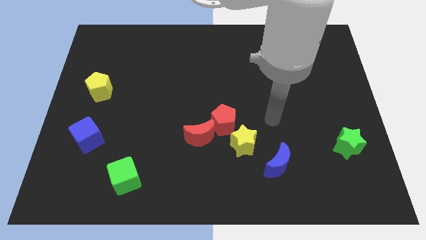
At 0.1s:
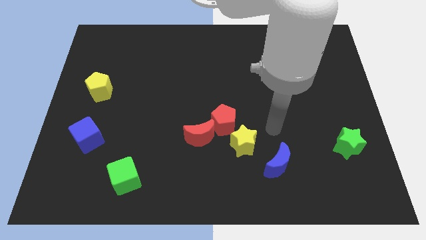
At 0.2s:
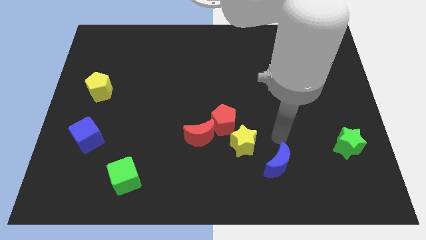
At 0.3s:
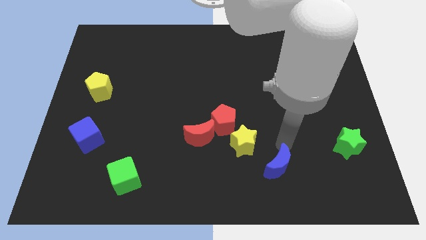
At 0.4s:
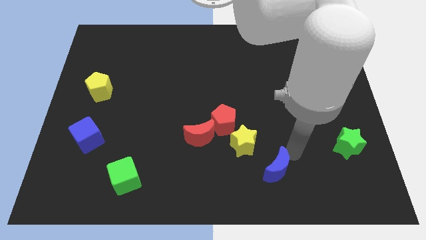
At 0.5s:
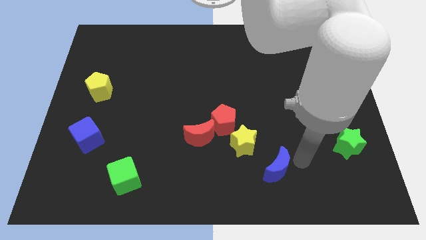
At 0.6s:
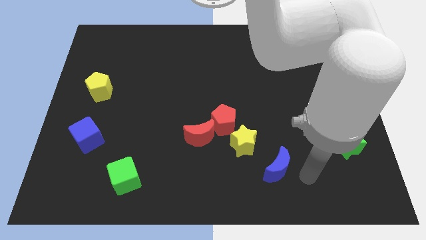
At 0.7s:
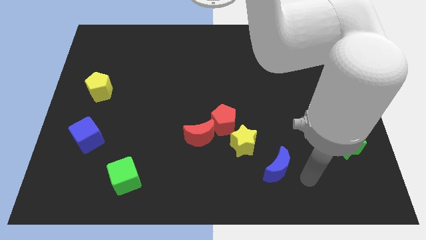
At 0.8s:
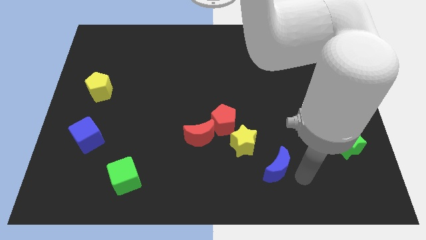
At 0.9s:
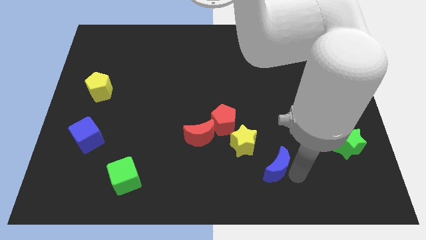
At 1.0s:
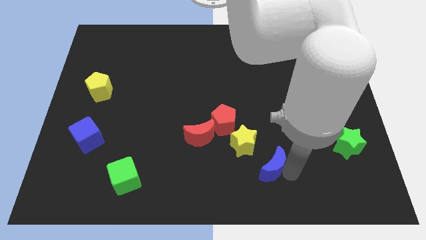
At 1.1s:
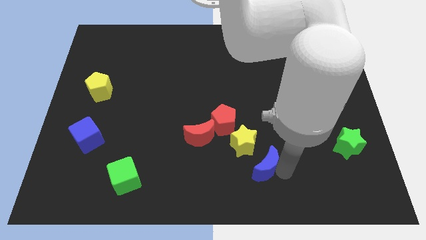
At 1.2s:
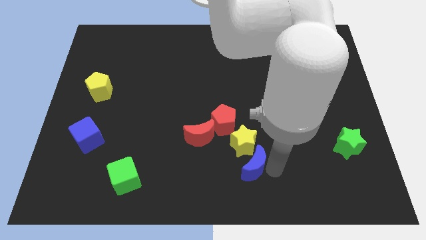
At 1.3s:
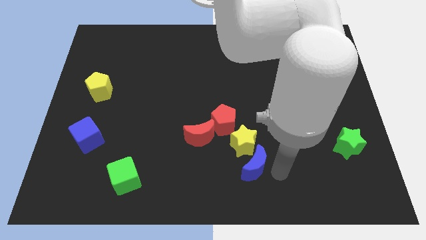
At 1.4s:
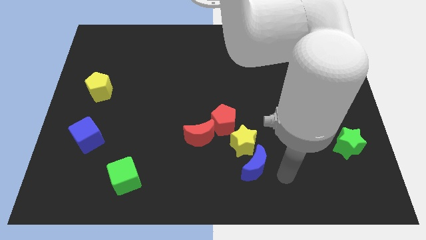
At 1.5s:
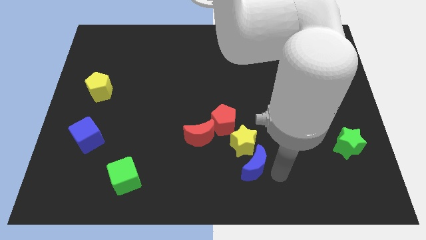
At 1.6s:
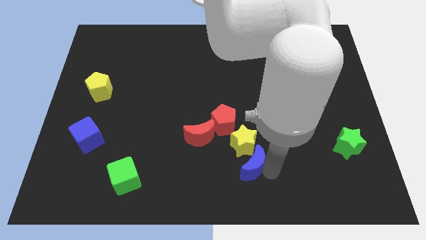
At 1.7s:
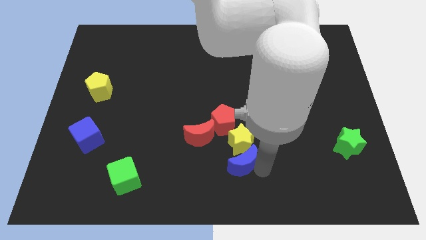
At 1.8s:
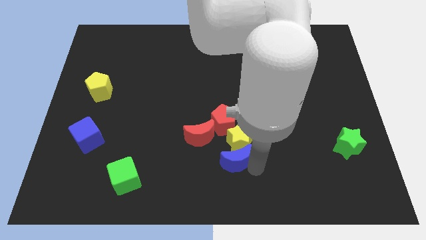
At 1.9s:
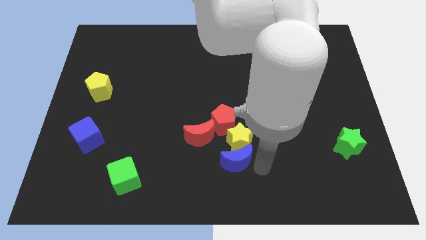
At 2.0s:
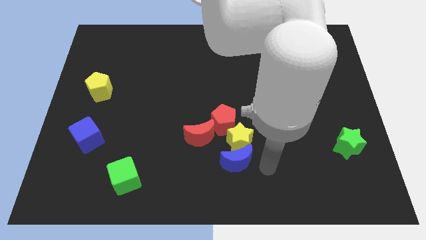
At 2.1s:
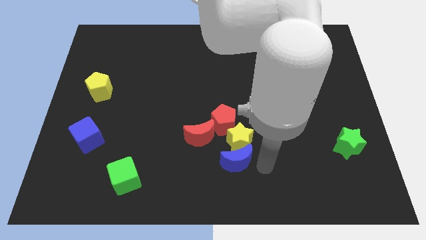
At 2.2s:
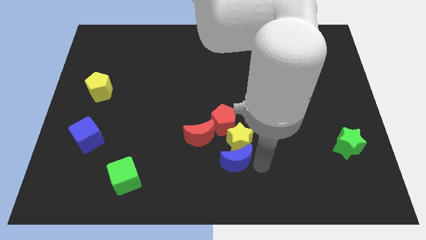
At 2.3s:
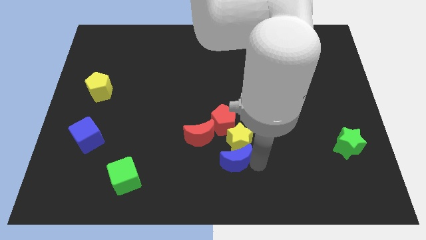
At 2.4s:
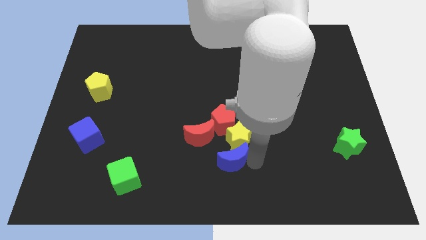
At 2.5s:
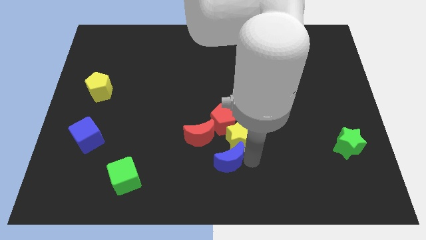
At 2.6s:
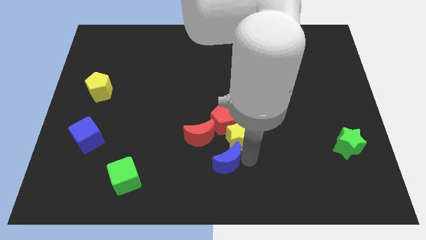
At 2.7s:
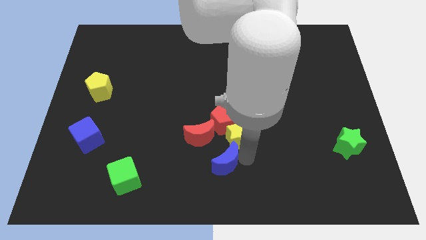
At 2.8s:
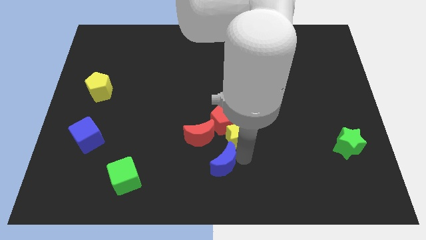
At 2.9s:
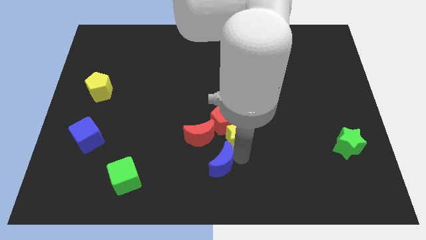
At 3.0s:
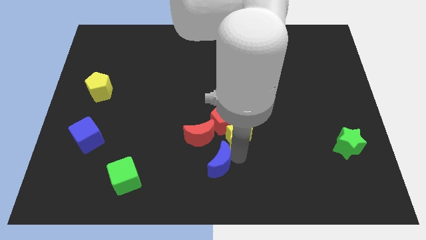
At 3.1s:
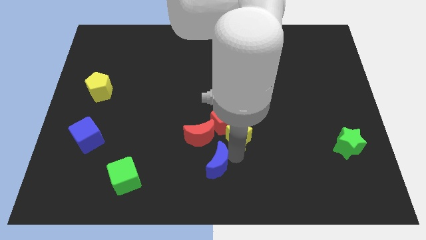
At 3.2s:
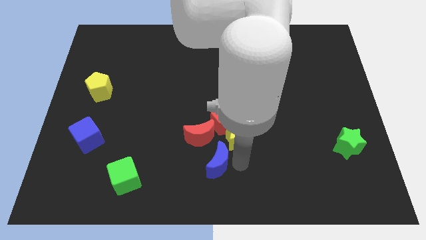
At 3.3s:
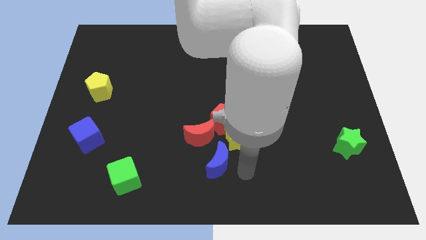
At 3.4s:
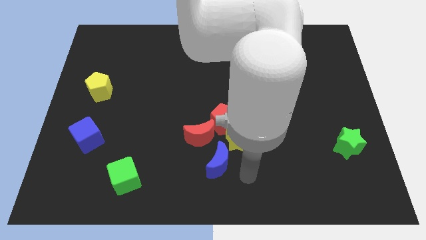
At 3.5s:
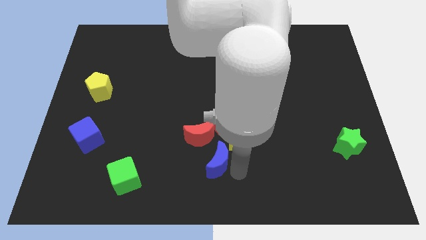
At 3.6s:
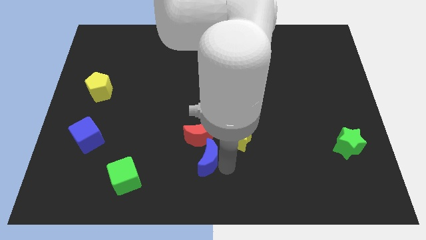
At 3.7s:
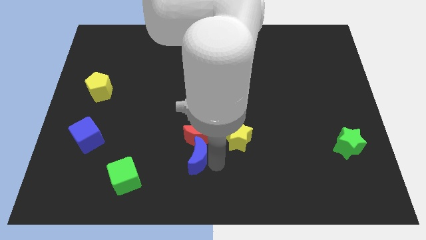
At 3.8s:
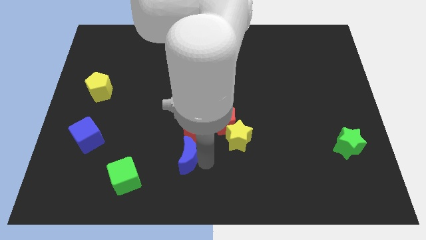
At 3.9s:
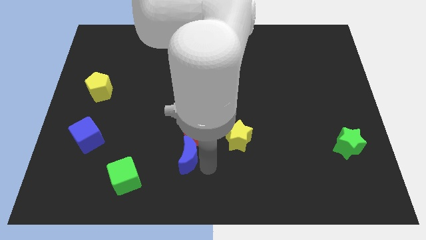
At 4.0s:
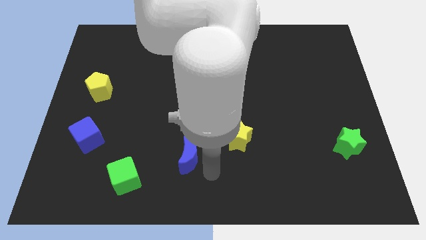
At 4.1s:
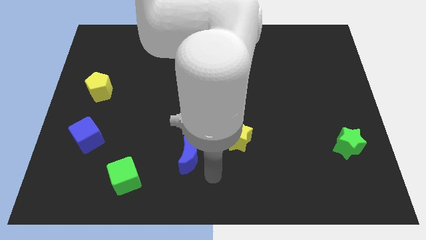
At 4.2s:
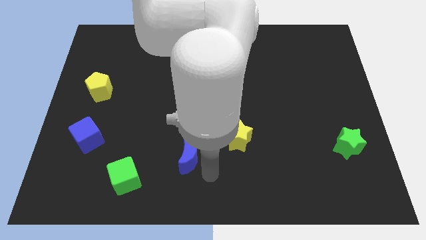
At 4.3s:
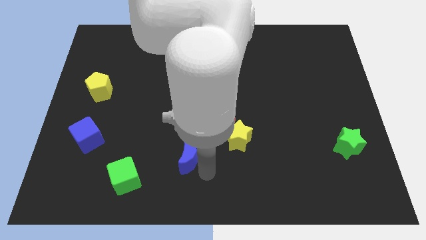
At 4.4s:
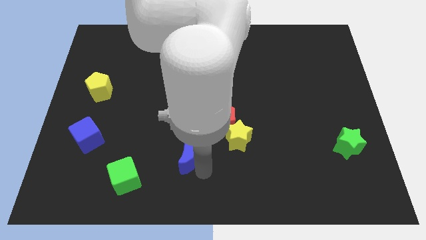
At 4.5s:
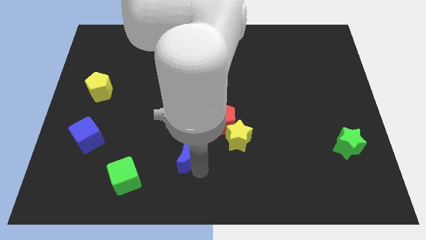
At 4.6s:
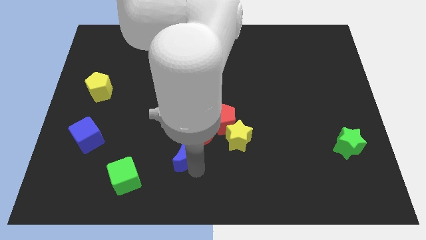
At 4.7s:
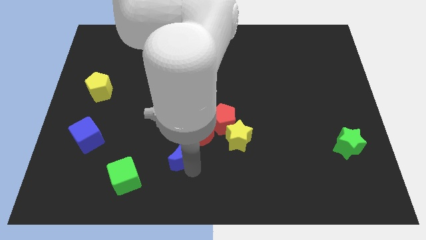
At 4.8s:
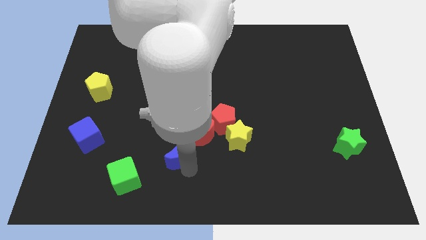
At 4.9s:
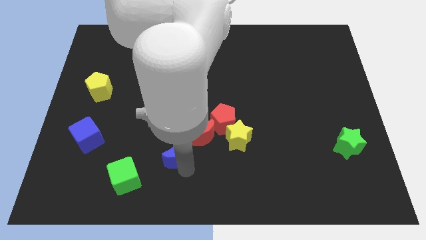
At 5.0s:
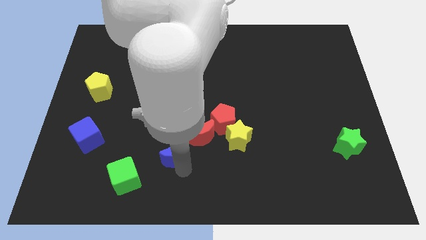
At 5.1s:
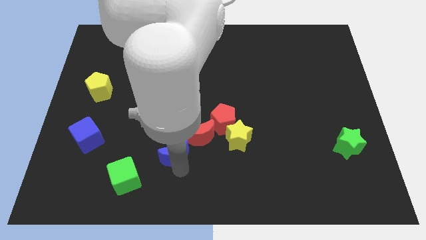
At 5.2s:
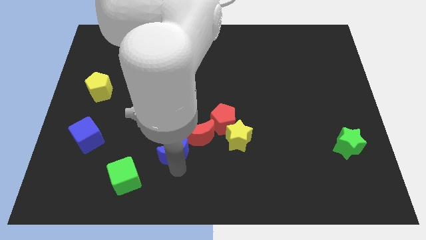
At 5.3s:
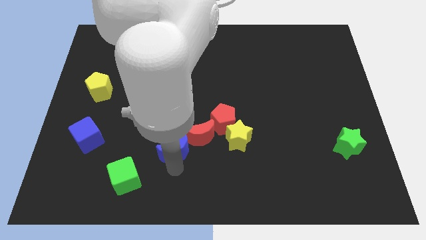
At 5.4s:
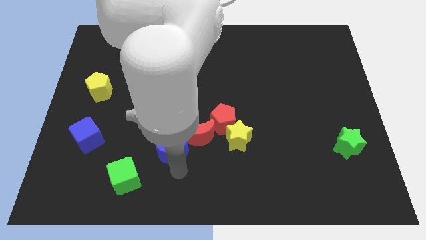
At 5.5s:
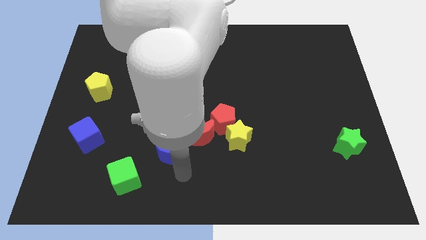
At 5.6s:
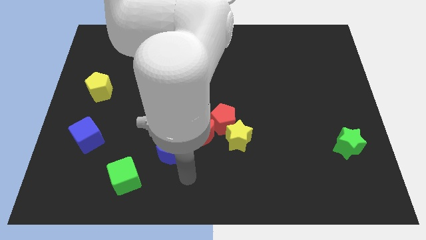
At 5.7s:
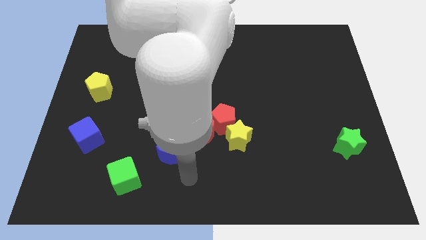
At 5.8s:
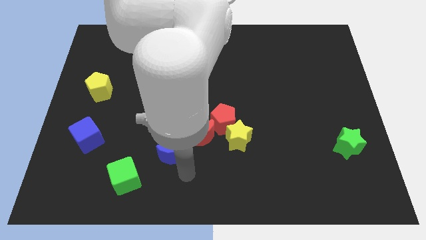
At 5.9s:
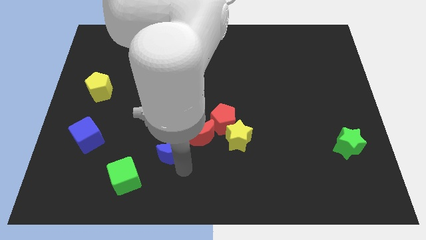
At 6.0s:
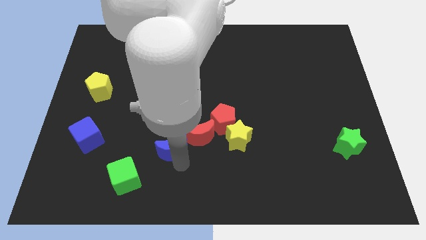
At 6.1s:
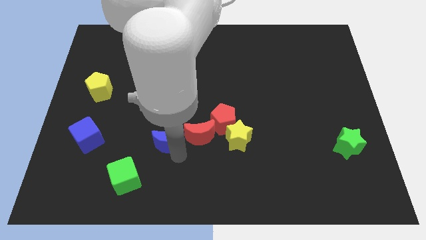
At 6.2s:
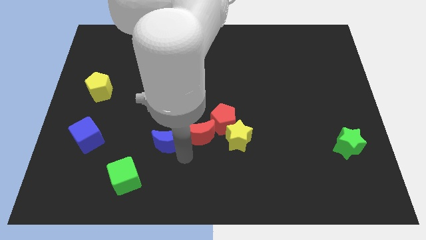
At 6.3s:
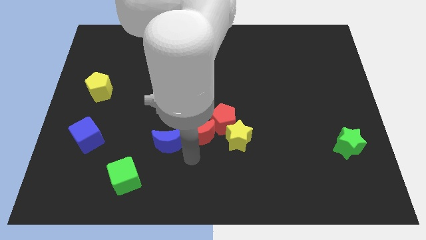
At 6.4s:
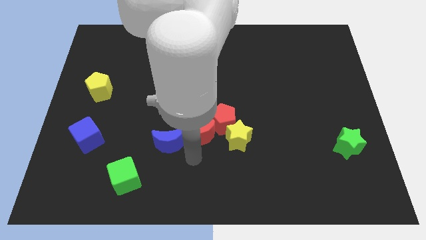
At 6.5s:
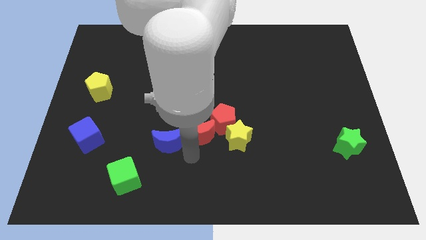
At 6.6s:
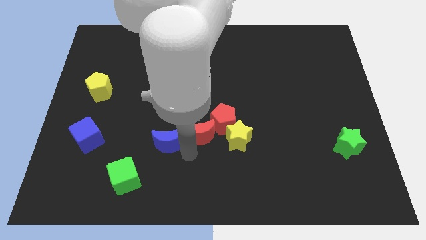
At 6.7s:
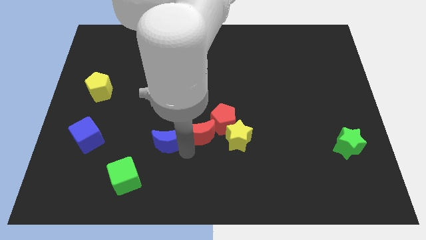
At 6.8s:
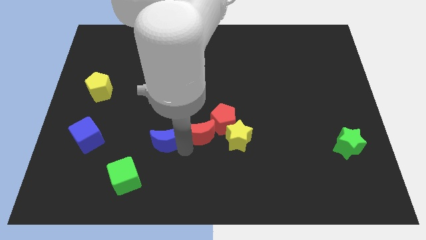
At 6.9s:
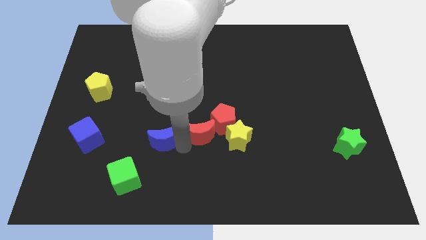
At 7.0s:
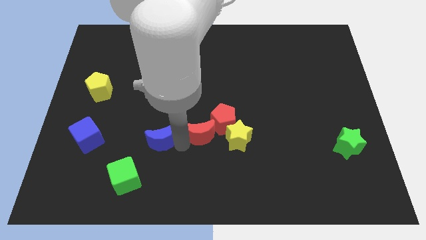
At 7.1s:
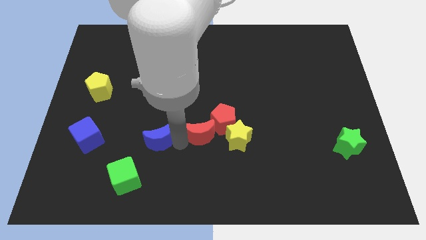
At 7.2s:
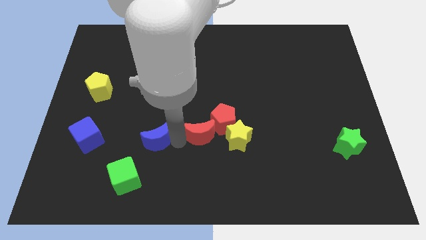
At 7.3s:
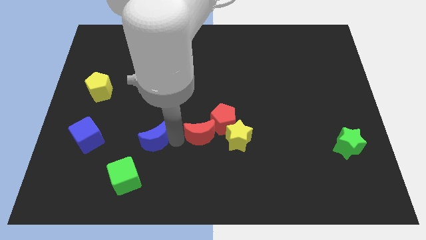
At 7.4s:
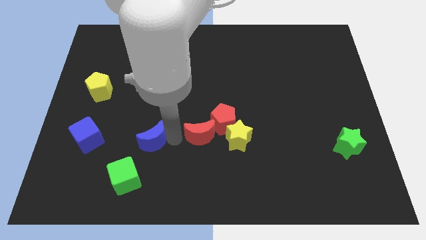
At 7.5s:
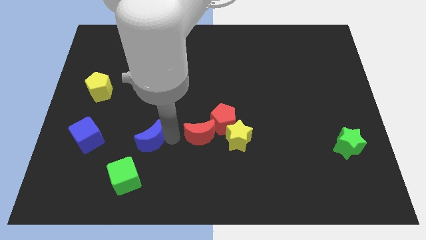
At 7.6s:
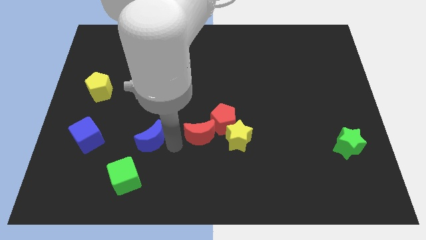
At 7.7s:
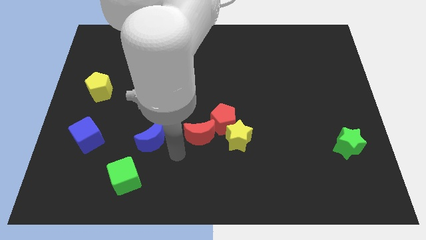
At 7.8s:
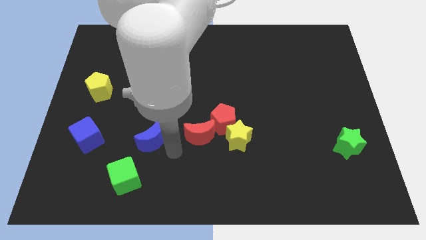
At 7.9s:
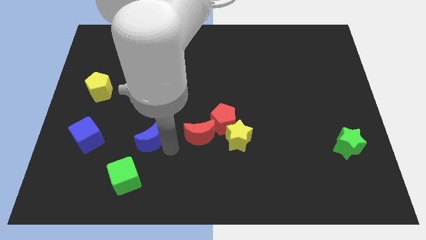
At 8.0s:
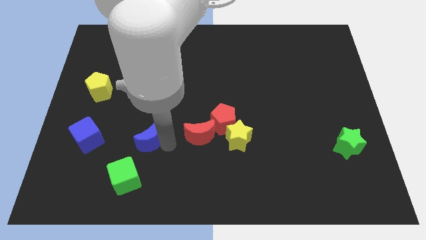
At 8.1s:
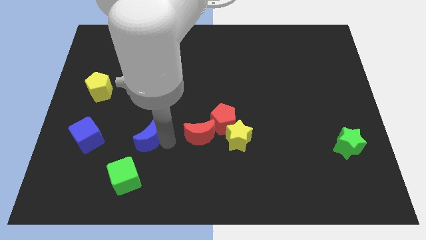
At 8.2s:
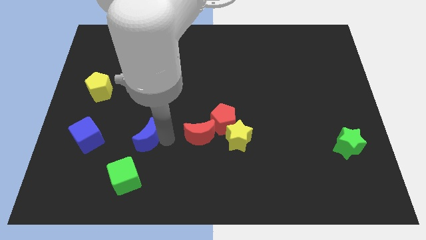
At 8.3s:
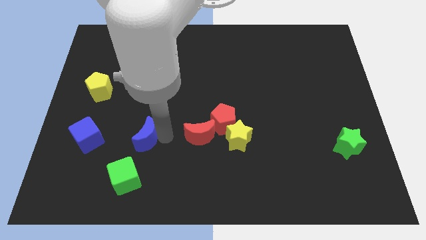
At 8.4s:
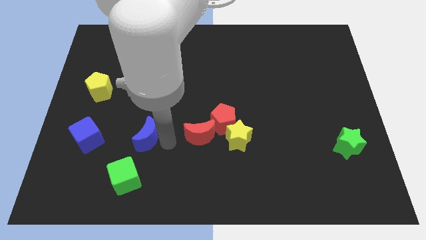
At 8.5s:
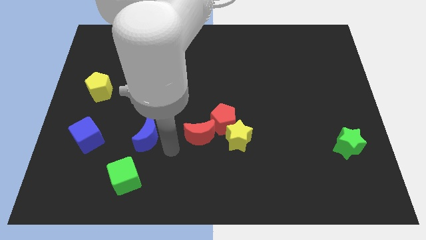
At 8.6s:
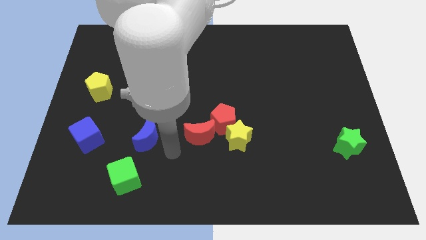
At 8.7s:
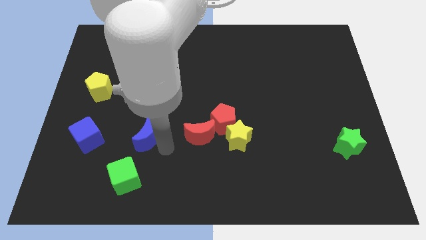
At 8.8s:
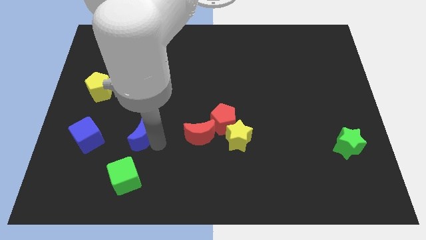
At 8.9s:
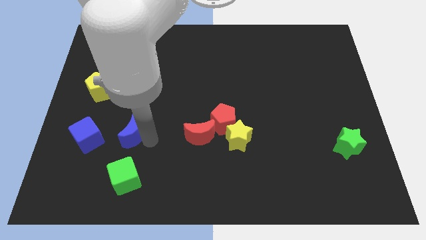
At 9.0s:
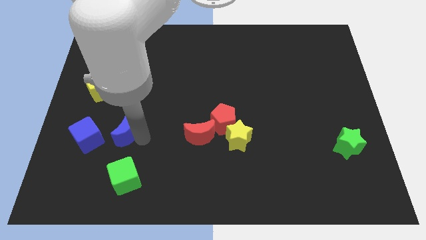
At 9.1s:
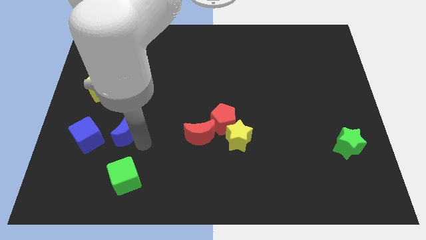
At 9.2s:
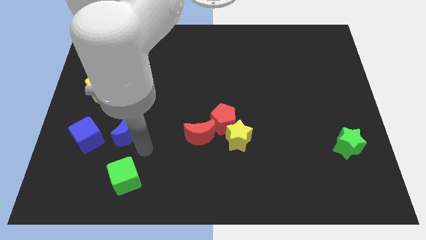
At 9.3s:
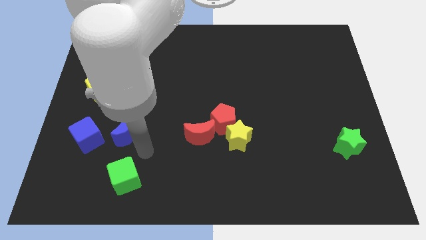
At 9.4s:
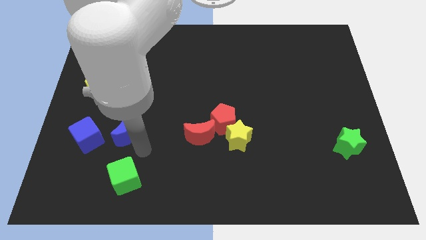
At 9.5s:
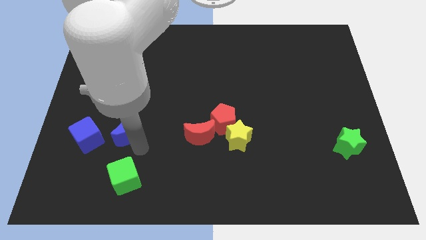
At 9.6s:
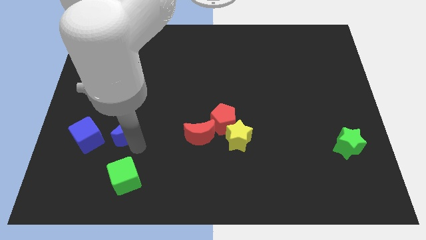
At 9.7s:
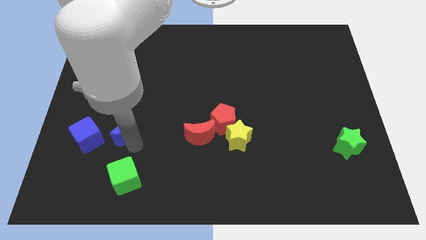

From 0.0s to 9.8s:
slide the blue moon diagonally up and to the right of the blue cube
